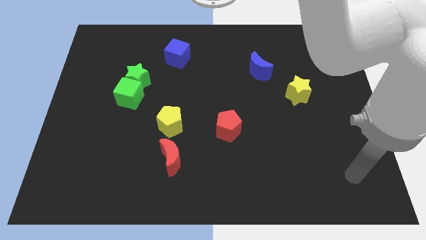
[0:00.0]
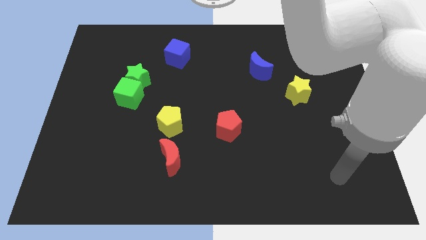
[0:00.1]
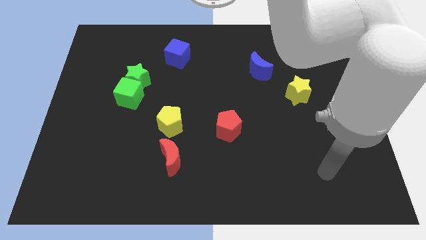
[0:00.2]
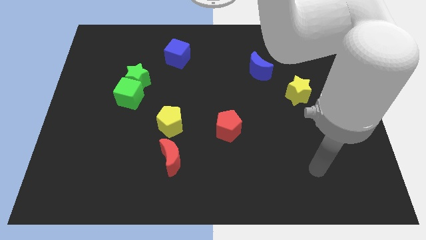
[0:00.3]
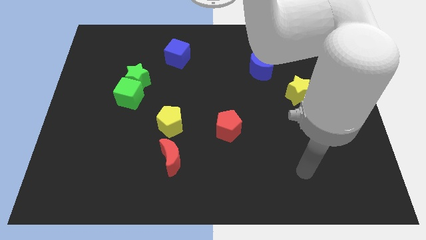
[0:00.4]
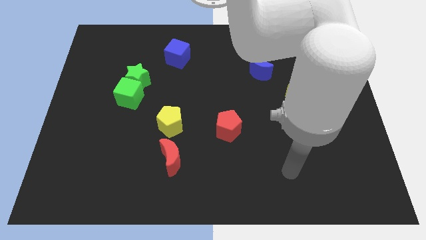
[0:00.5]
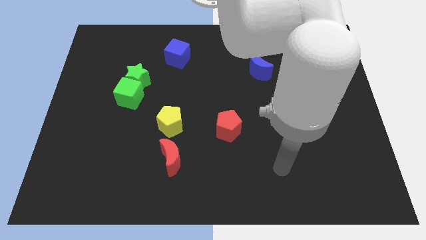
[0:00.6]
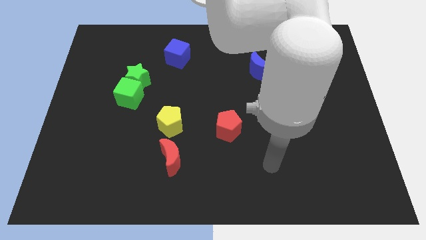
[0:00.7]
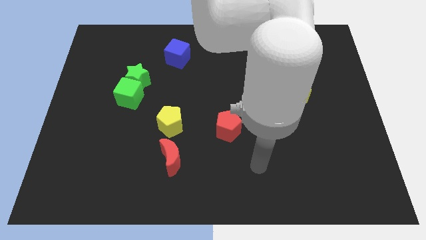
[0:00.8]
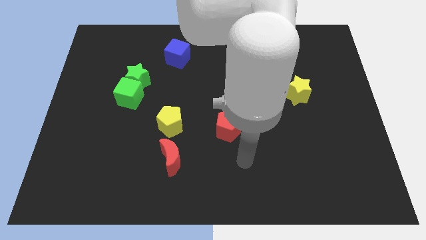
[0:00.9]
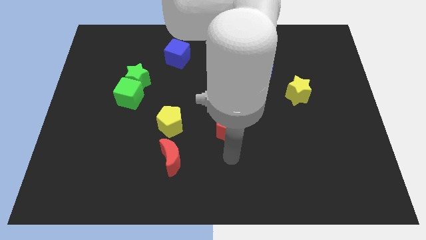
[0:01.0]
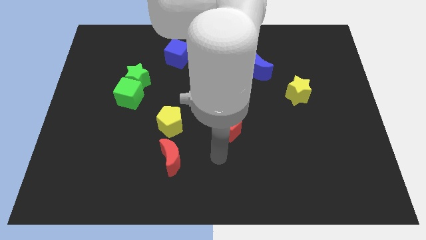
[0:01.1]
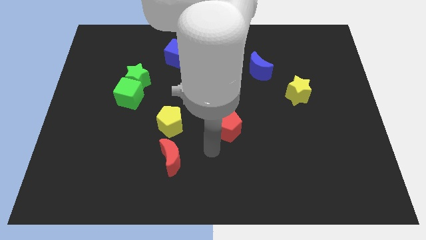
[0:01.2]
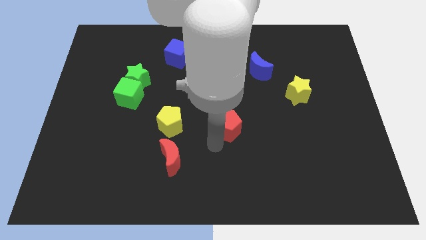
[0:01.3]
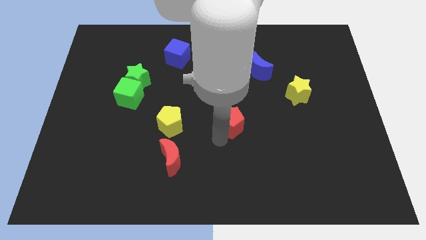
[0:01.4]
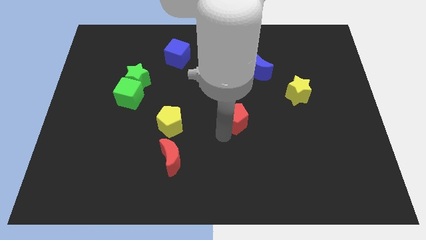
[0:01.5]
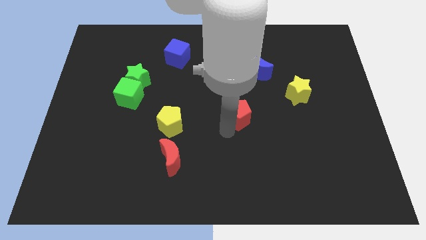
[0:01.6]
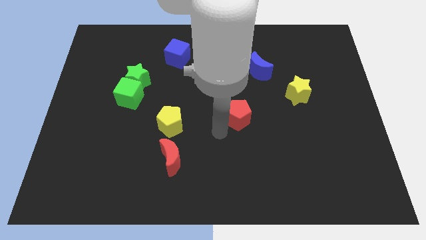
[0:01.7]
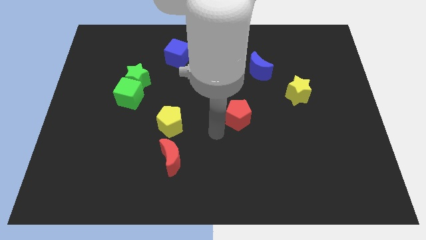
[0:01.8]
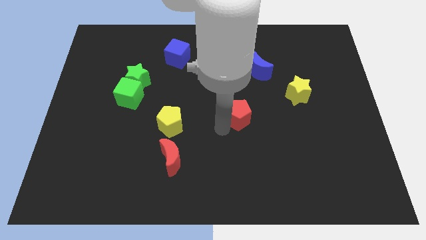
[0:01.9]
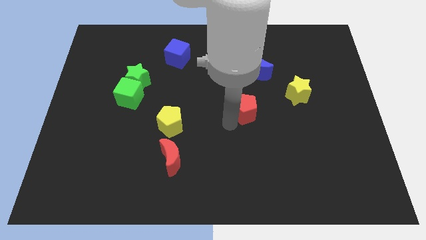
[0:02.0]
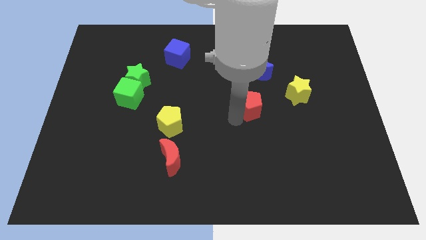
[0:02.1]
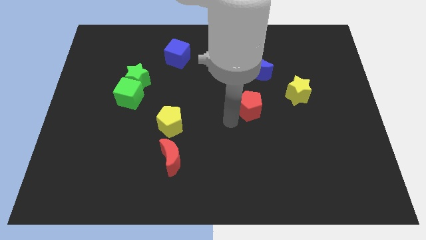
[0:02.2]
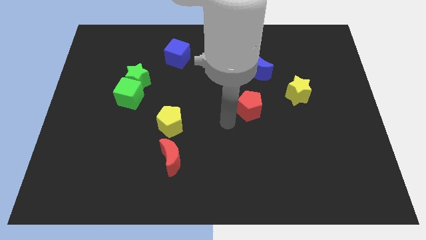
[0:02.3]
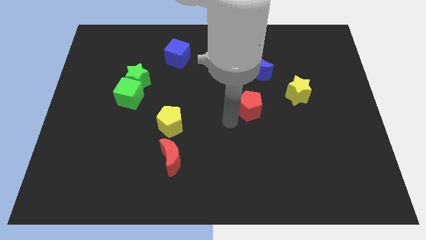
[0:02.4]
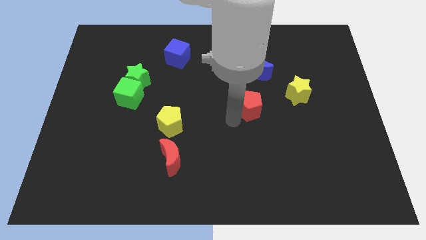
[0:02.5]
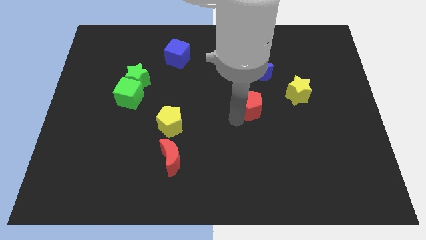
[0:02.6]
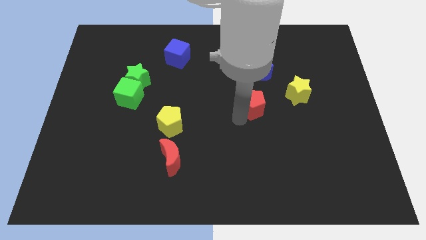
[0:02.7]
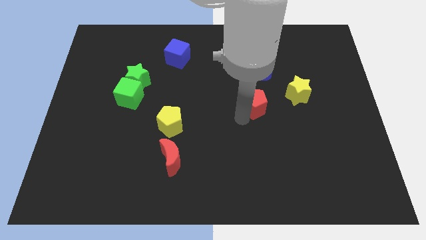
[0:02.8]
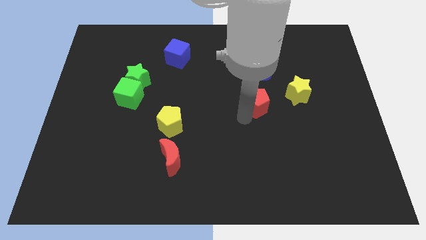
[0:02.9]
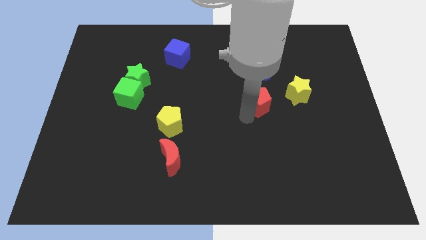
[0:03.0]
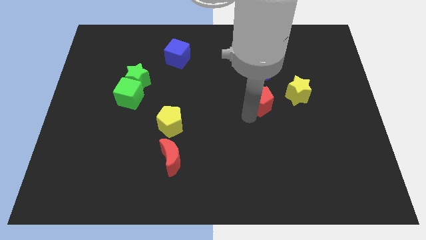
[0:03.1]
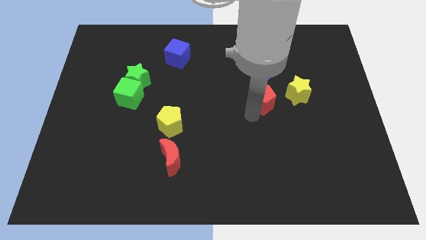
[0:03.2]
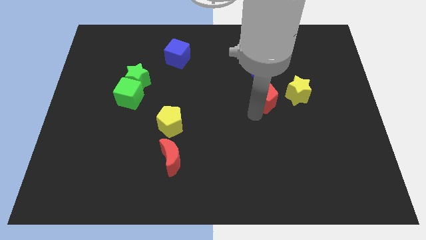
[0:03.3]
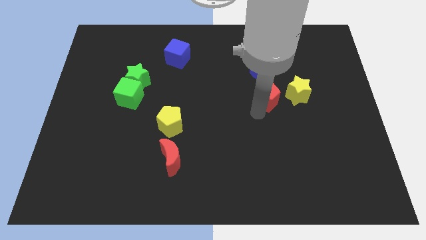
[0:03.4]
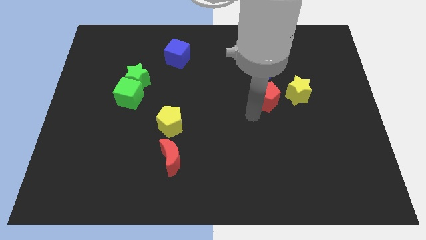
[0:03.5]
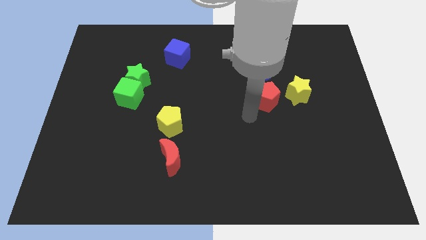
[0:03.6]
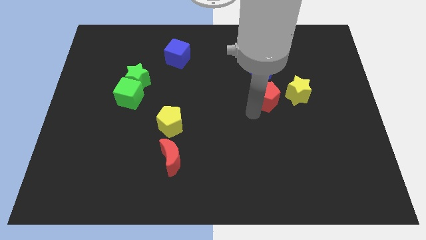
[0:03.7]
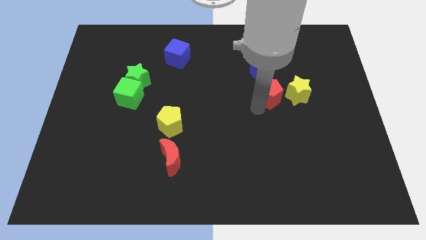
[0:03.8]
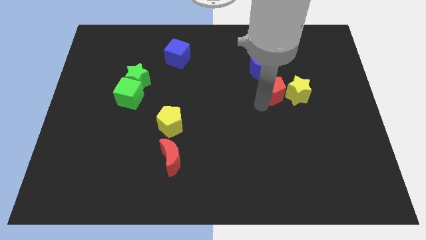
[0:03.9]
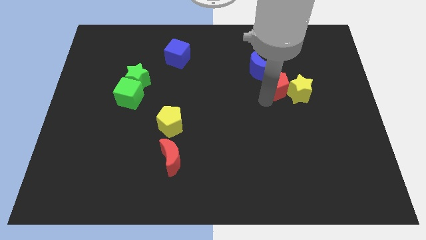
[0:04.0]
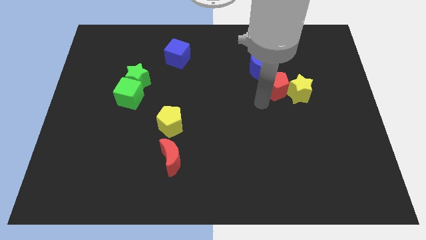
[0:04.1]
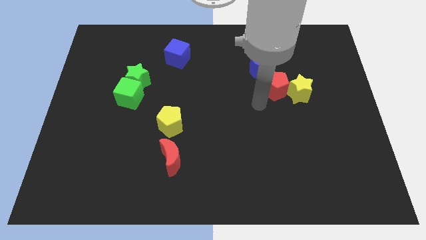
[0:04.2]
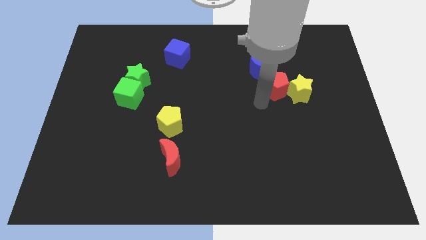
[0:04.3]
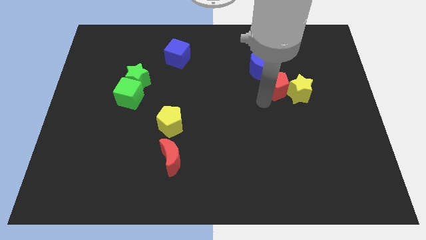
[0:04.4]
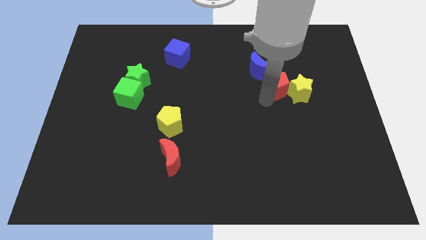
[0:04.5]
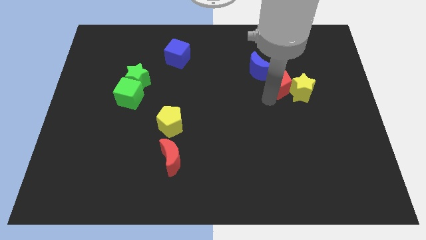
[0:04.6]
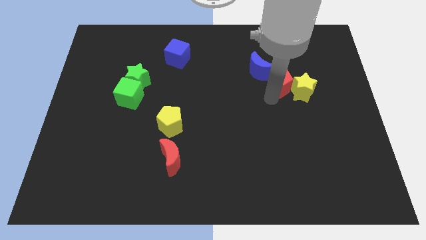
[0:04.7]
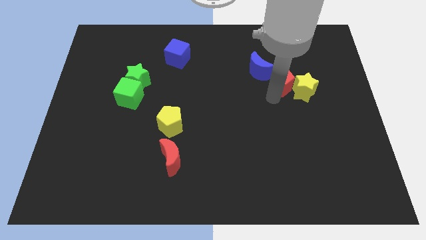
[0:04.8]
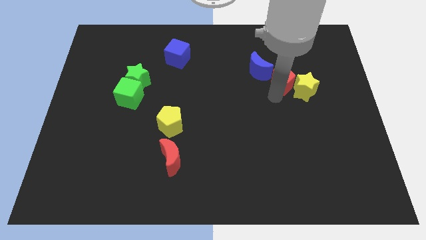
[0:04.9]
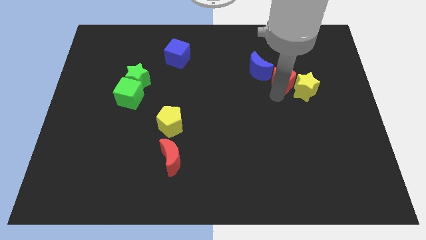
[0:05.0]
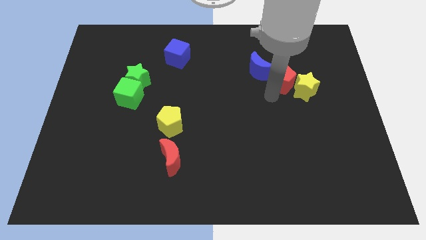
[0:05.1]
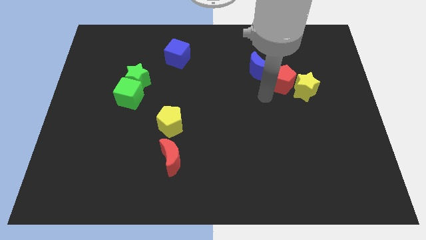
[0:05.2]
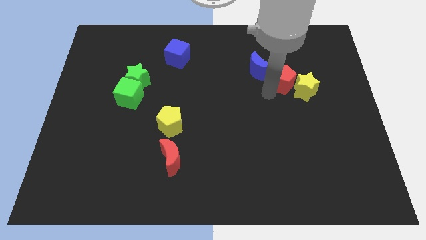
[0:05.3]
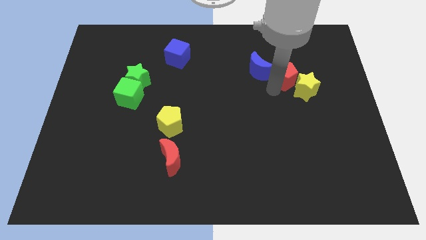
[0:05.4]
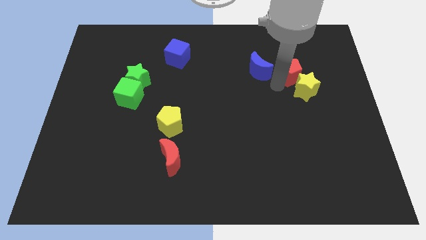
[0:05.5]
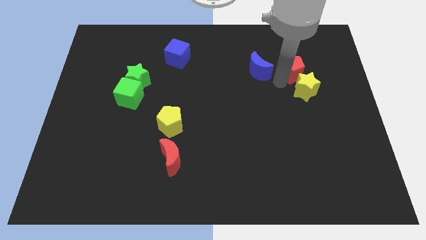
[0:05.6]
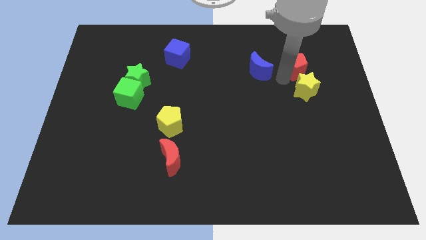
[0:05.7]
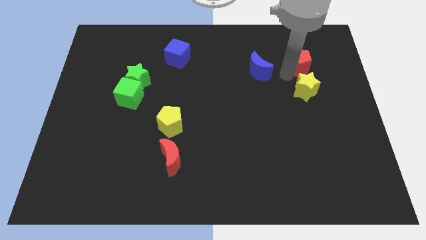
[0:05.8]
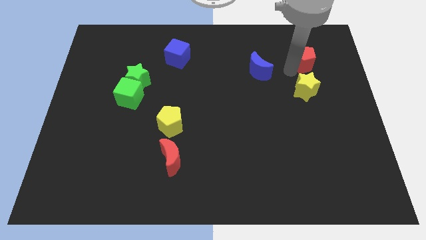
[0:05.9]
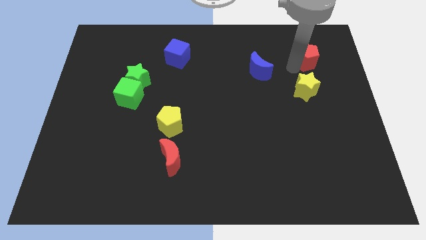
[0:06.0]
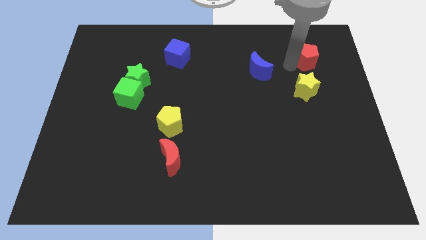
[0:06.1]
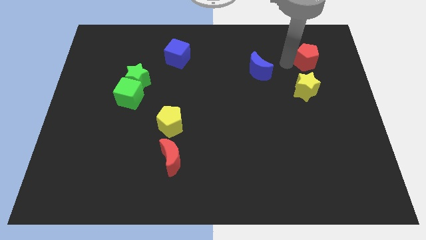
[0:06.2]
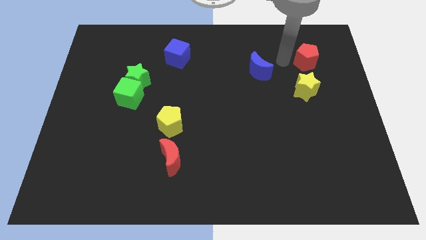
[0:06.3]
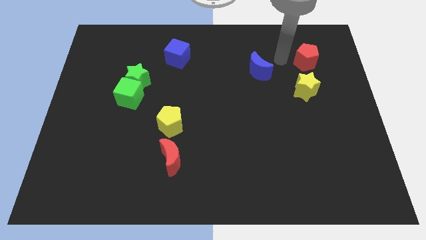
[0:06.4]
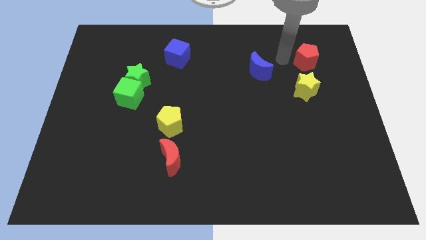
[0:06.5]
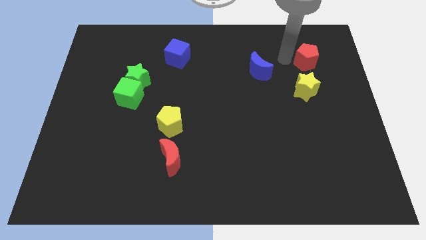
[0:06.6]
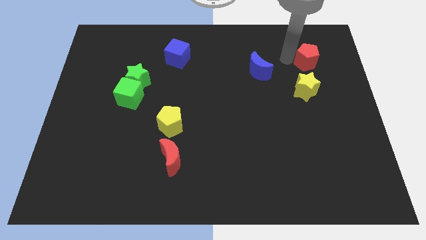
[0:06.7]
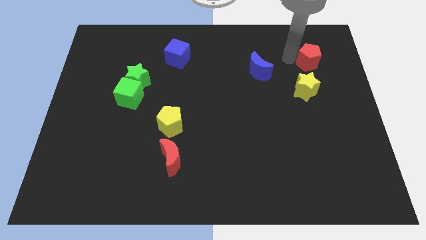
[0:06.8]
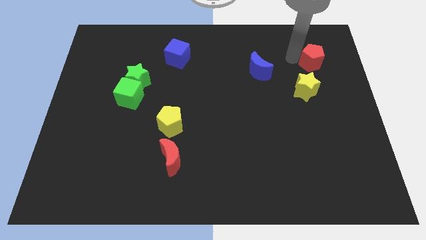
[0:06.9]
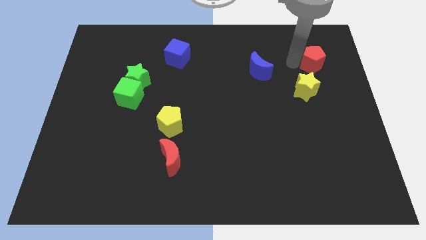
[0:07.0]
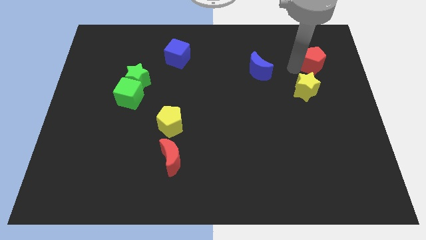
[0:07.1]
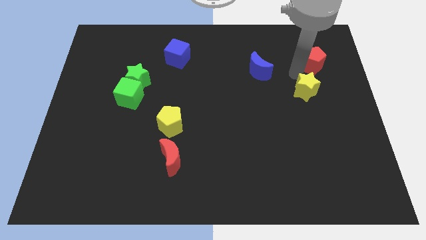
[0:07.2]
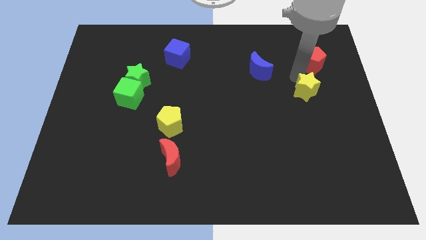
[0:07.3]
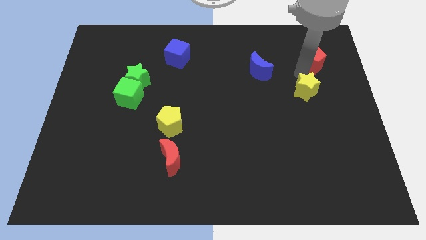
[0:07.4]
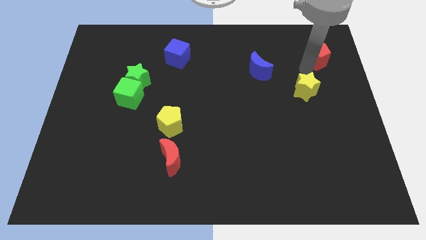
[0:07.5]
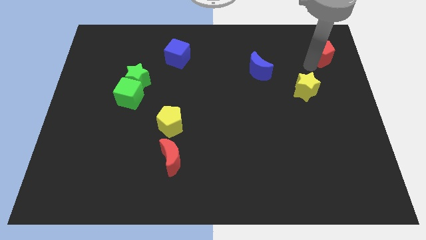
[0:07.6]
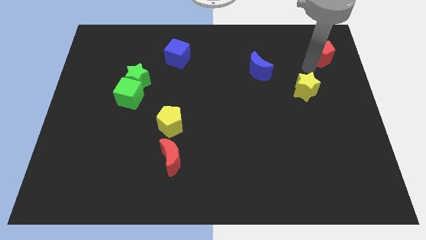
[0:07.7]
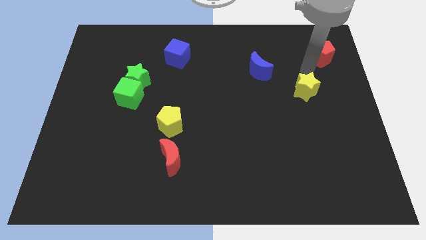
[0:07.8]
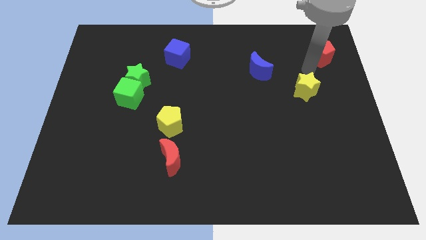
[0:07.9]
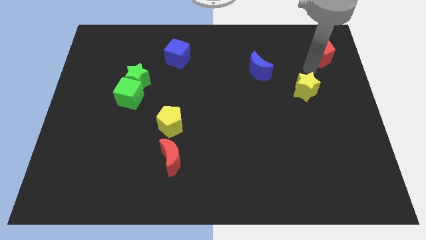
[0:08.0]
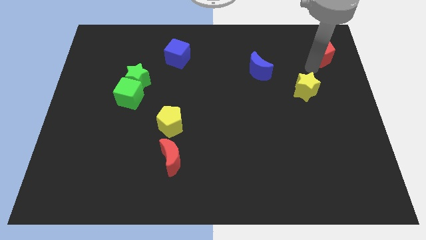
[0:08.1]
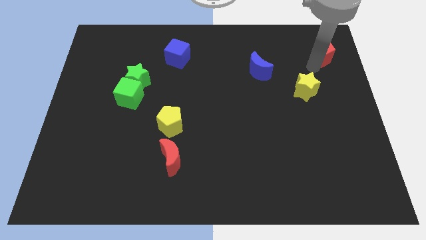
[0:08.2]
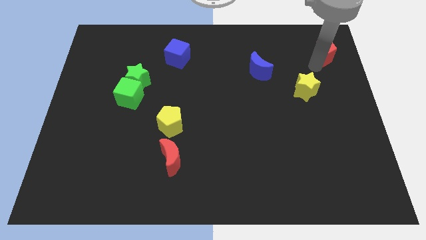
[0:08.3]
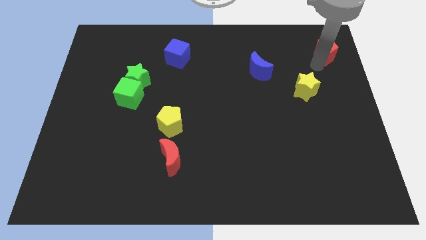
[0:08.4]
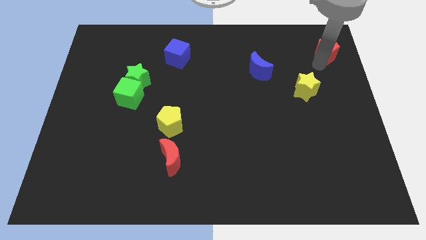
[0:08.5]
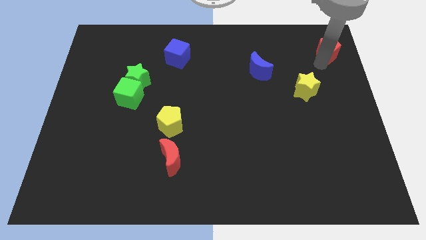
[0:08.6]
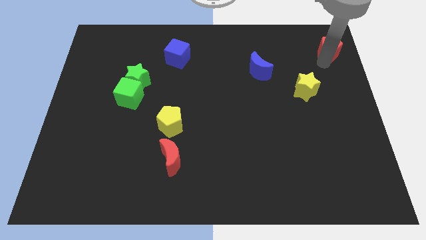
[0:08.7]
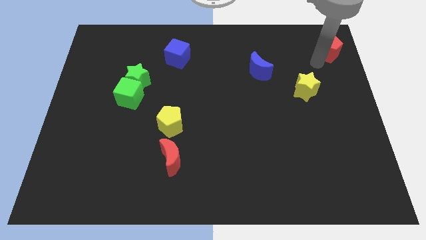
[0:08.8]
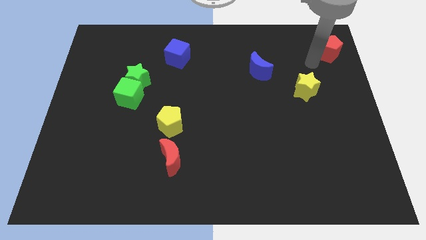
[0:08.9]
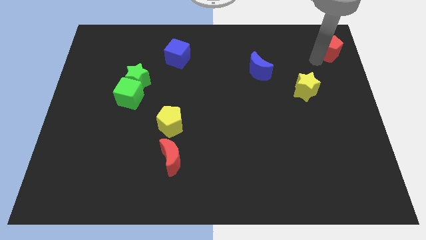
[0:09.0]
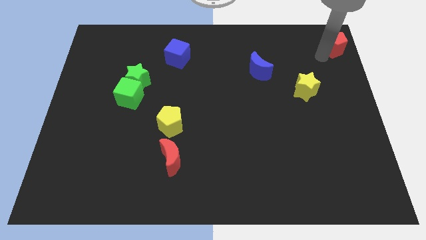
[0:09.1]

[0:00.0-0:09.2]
push the red pentagon to the top right of the board
